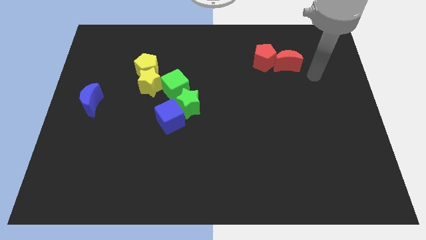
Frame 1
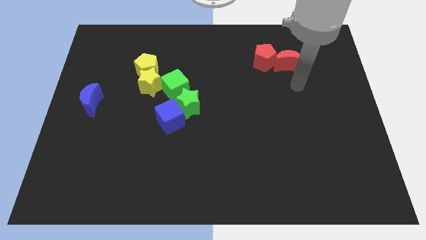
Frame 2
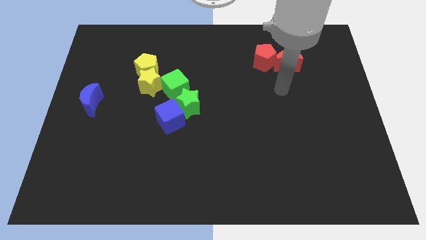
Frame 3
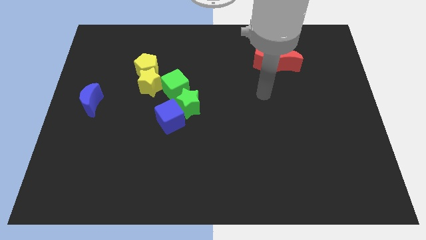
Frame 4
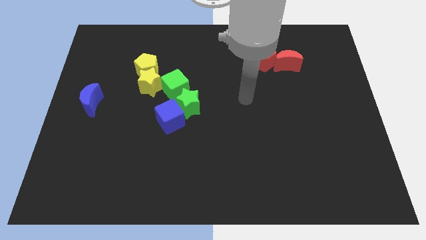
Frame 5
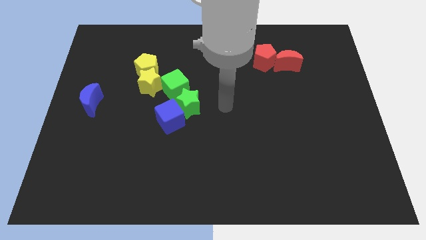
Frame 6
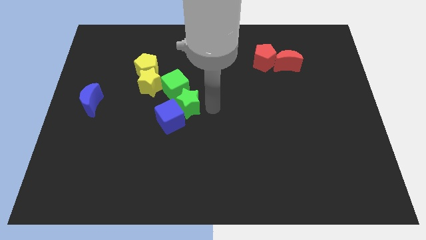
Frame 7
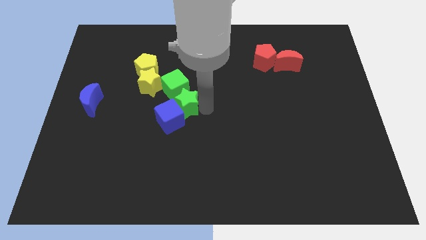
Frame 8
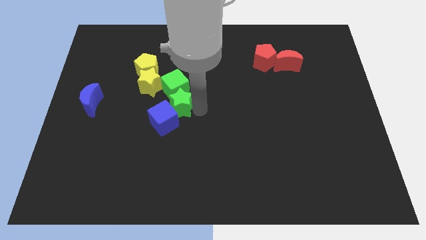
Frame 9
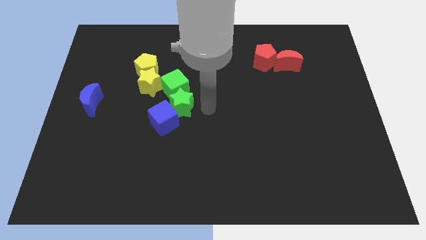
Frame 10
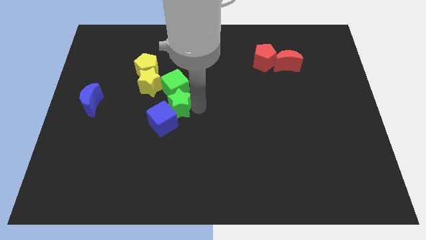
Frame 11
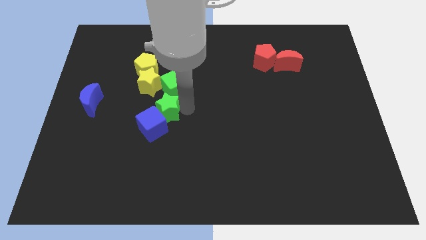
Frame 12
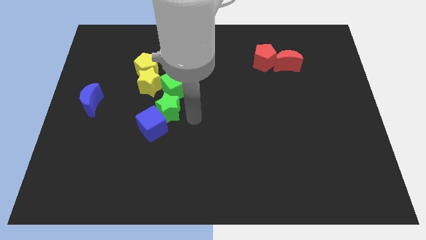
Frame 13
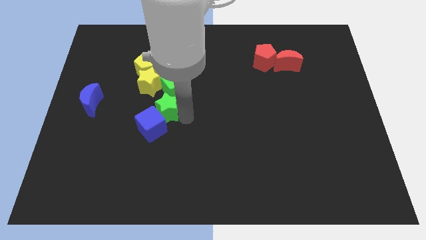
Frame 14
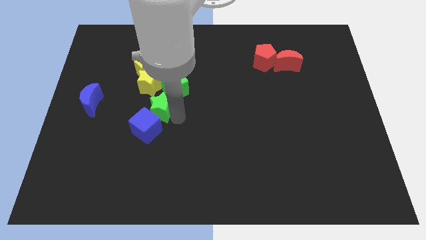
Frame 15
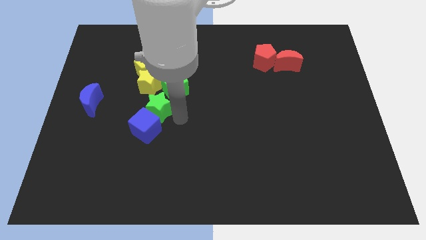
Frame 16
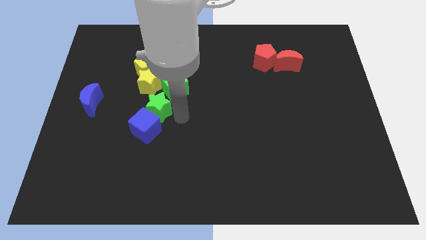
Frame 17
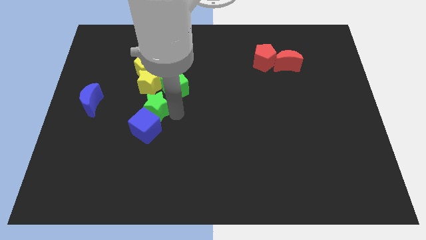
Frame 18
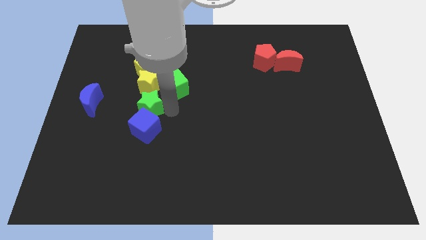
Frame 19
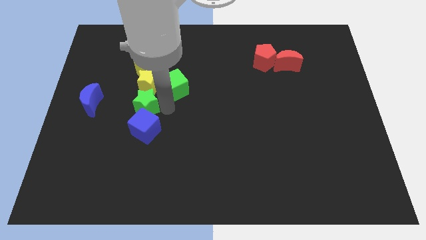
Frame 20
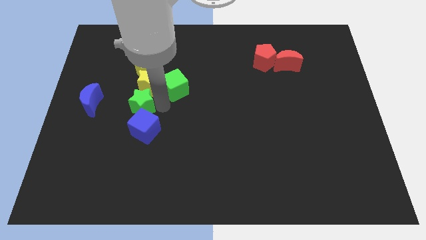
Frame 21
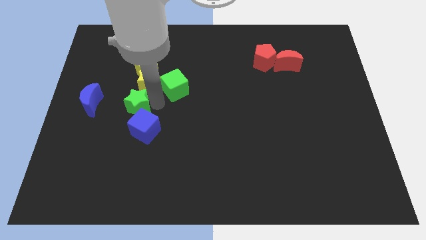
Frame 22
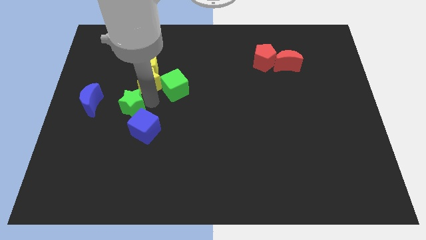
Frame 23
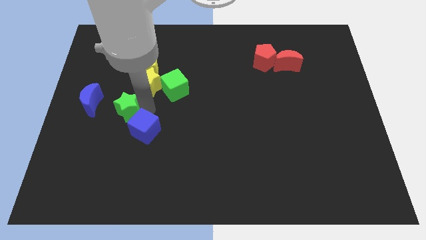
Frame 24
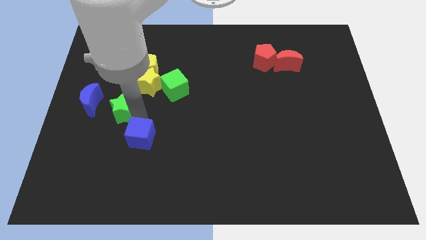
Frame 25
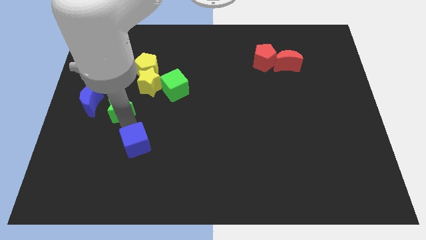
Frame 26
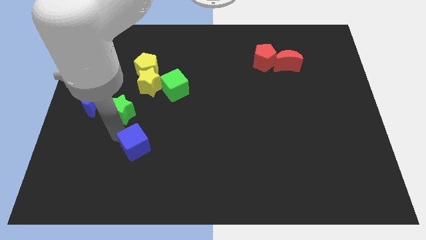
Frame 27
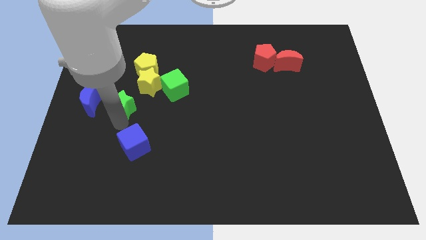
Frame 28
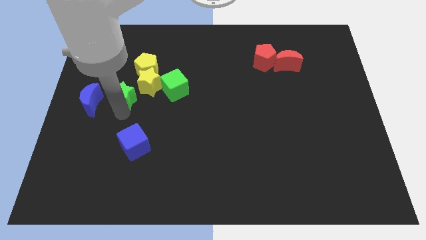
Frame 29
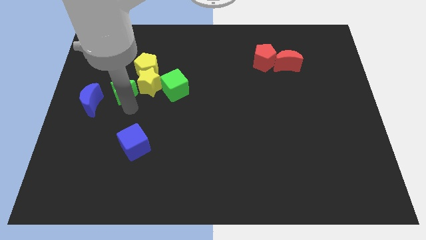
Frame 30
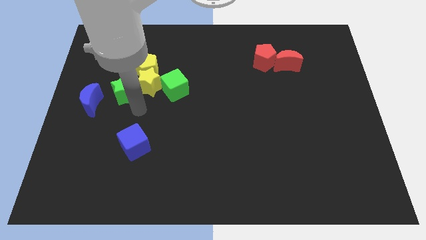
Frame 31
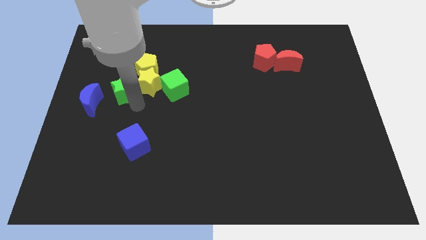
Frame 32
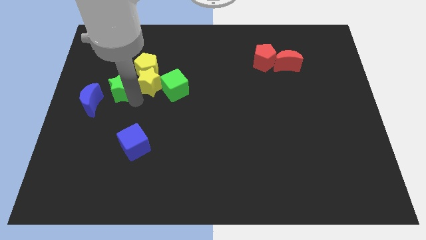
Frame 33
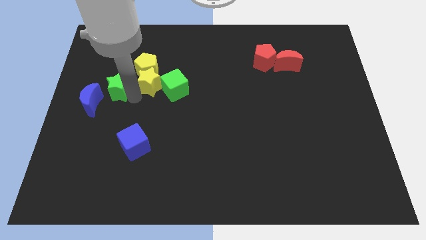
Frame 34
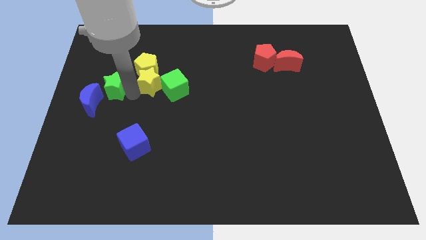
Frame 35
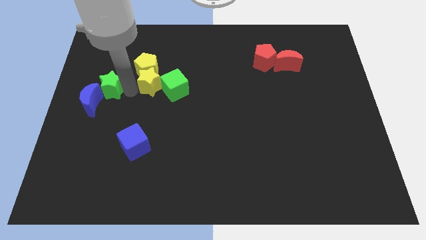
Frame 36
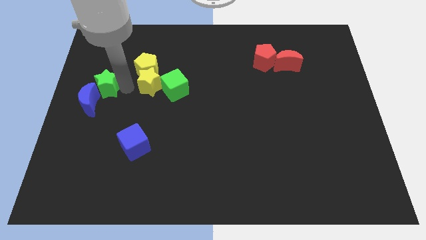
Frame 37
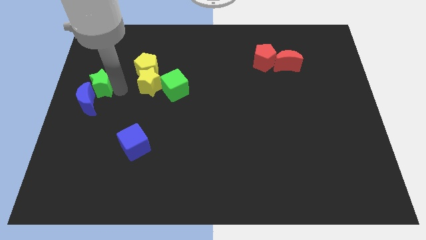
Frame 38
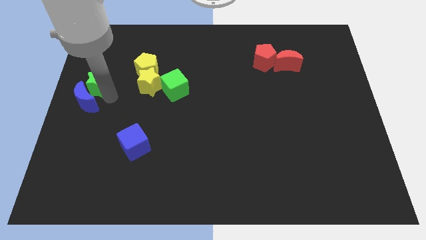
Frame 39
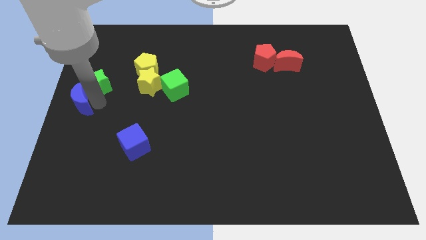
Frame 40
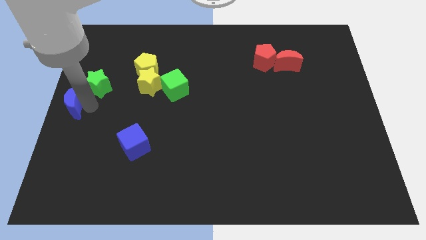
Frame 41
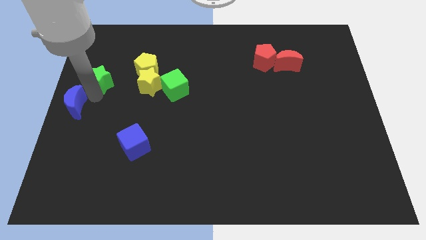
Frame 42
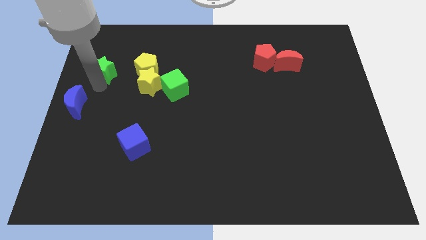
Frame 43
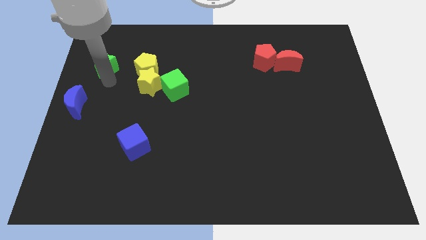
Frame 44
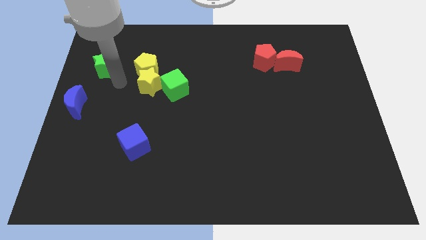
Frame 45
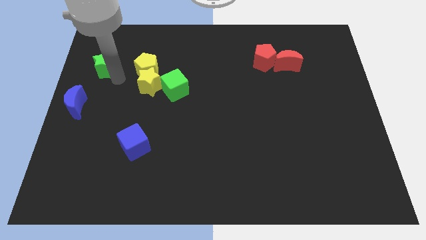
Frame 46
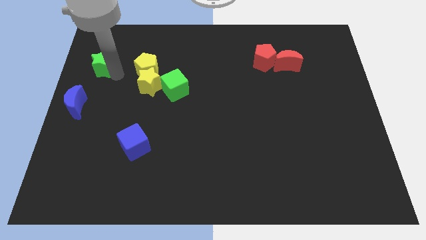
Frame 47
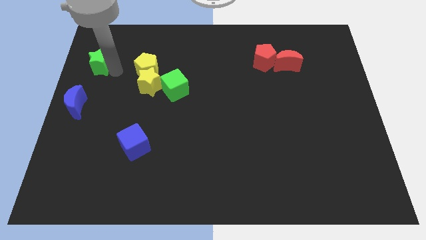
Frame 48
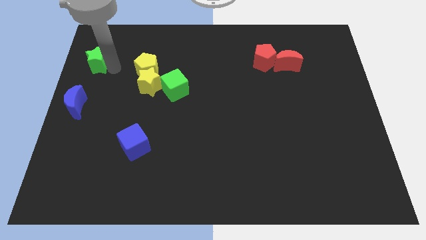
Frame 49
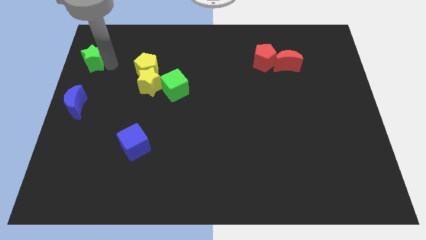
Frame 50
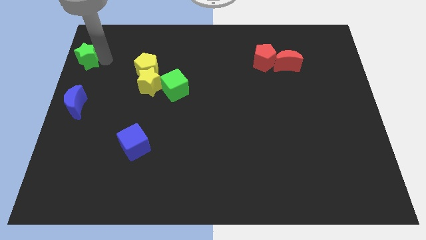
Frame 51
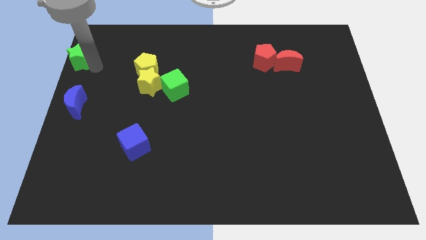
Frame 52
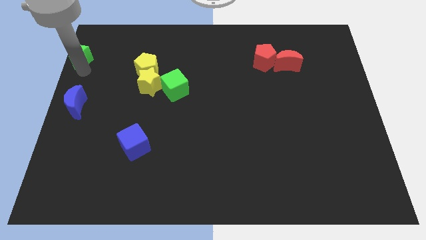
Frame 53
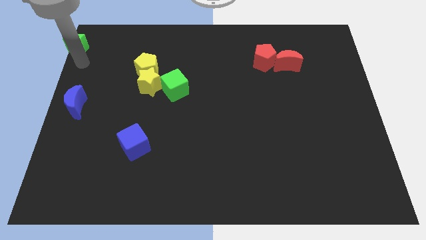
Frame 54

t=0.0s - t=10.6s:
slide the green star to the top left
